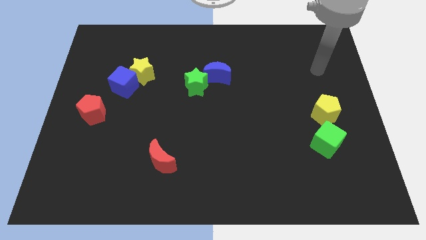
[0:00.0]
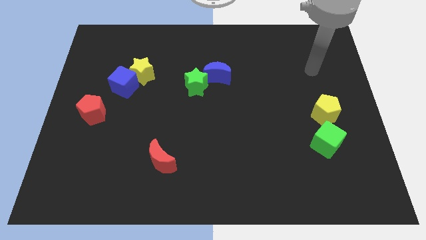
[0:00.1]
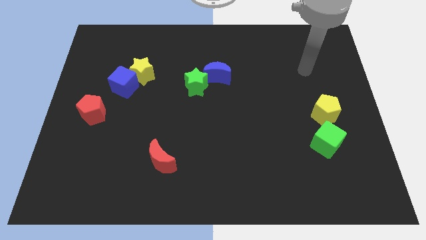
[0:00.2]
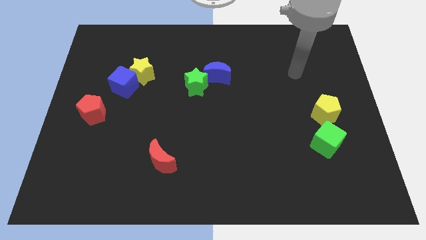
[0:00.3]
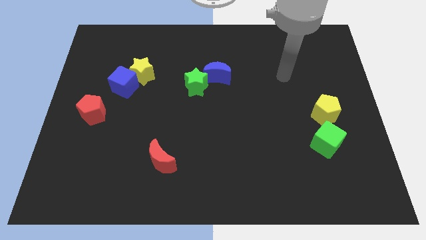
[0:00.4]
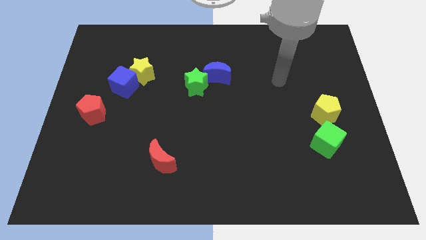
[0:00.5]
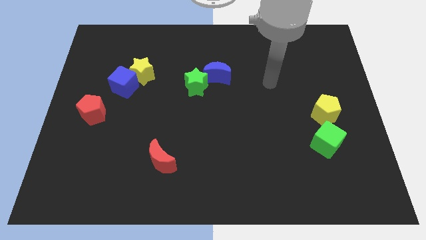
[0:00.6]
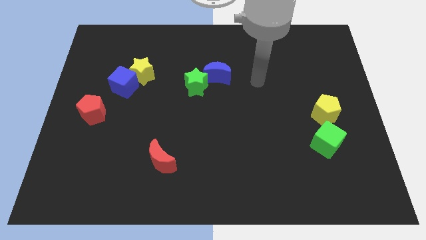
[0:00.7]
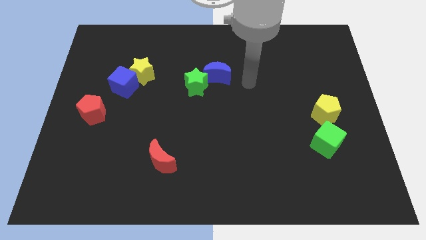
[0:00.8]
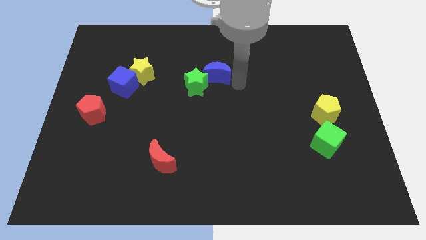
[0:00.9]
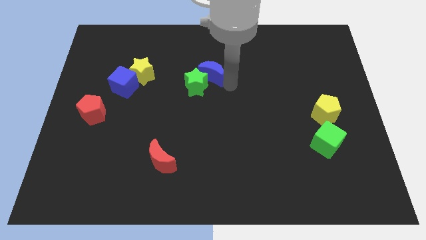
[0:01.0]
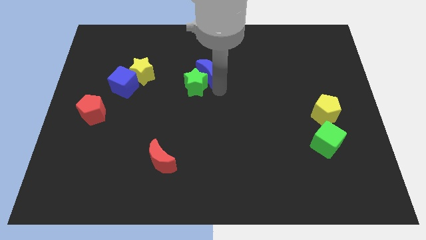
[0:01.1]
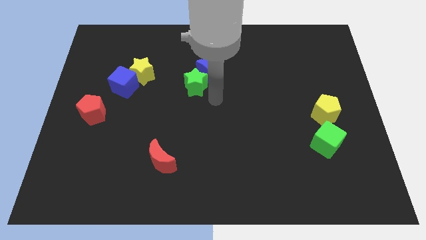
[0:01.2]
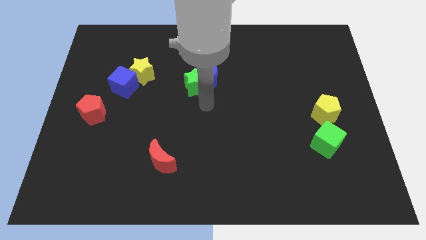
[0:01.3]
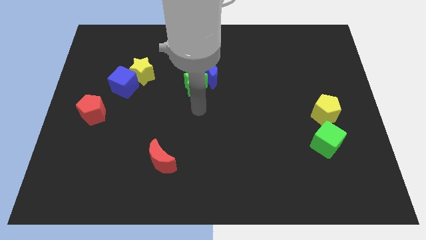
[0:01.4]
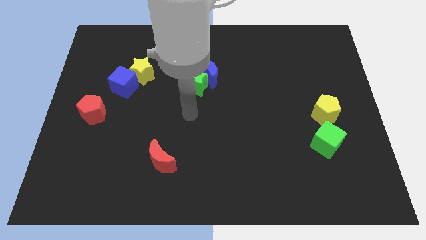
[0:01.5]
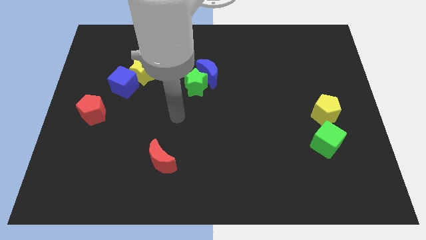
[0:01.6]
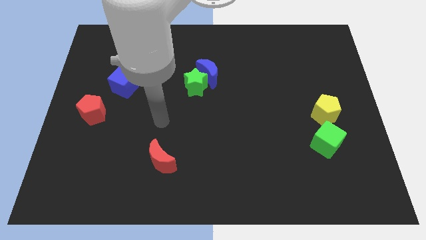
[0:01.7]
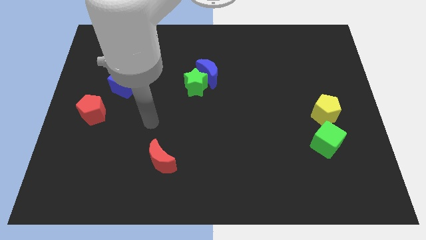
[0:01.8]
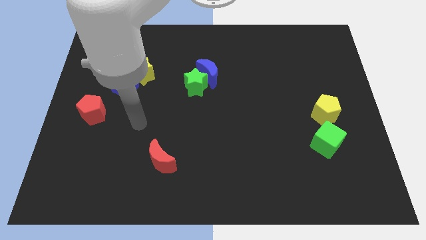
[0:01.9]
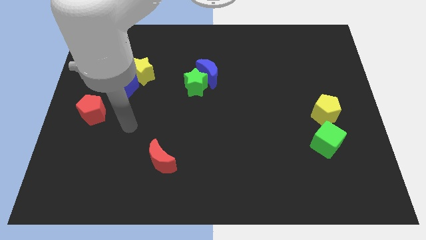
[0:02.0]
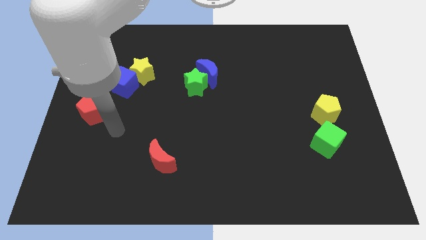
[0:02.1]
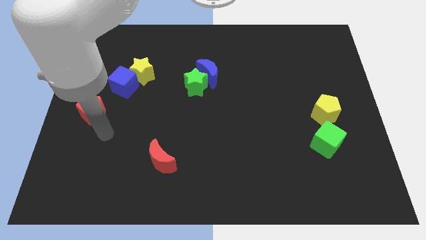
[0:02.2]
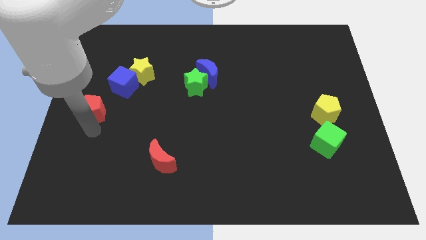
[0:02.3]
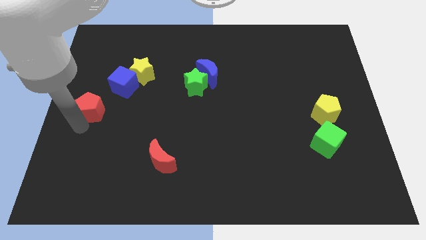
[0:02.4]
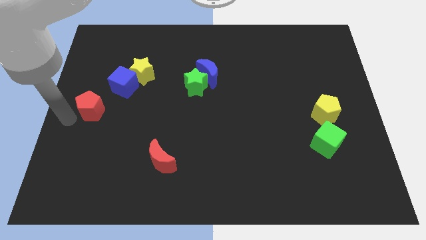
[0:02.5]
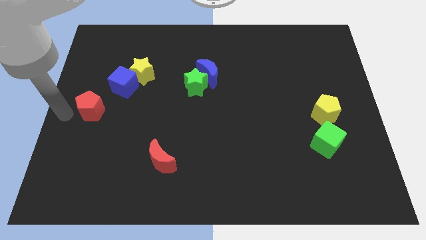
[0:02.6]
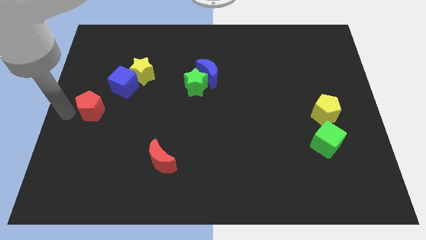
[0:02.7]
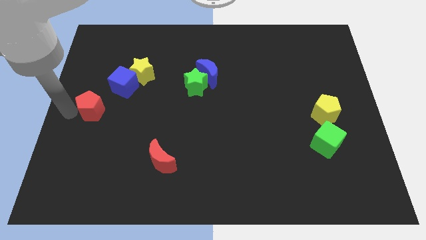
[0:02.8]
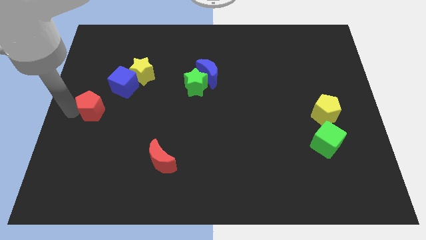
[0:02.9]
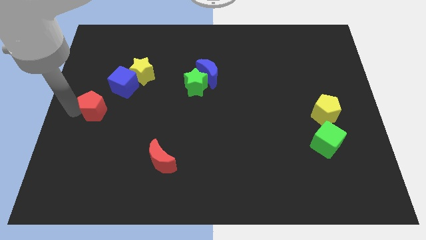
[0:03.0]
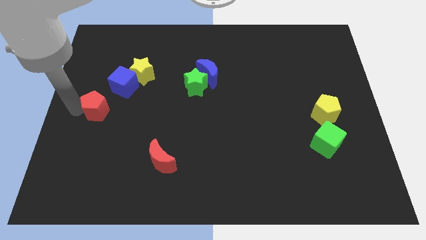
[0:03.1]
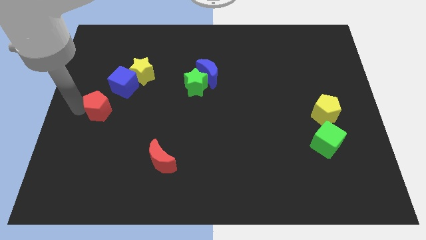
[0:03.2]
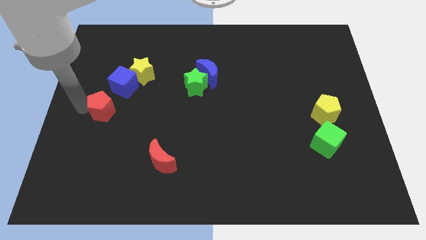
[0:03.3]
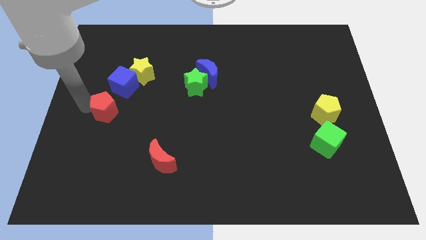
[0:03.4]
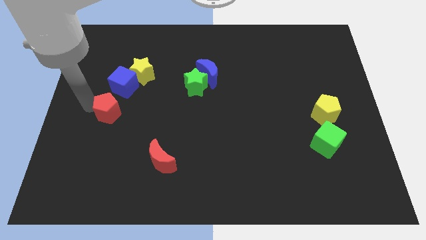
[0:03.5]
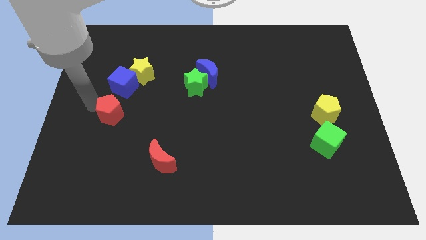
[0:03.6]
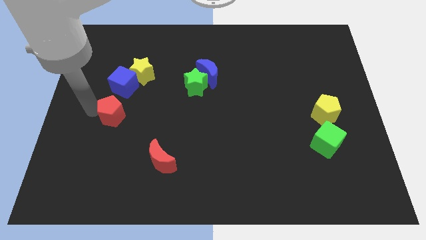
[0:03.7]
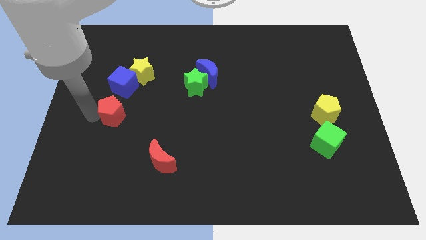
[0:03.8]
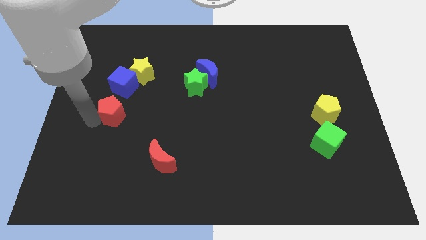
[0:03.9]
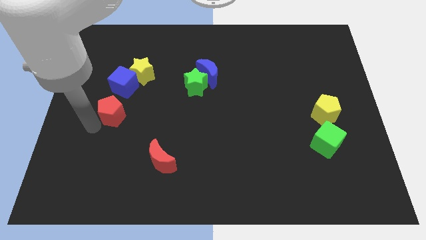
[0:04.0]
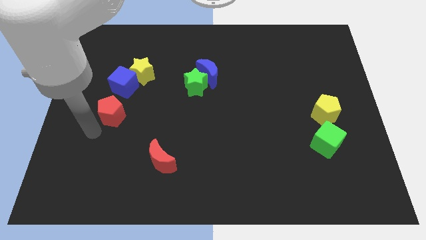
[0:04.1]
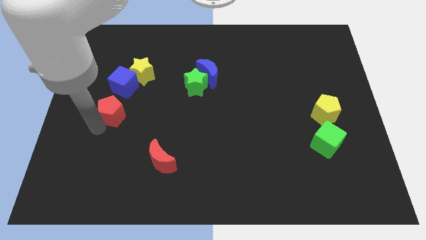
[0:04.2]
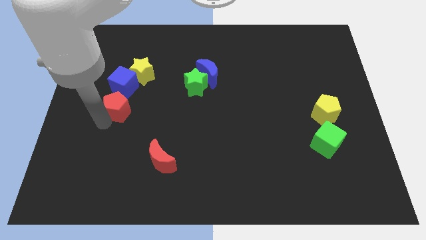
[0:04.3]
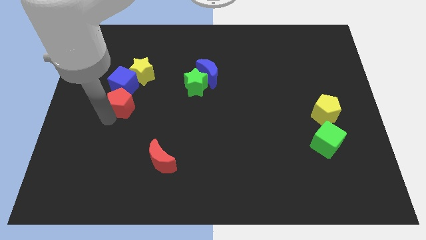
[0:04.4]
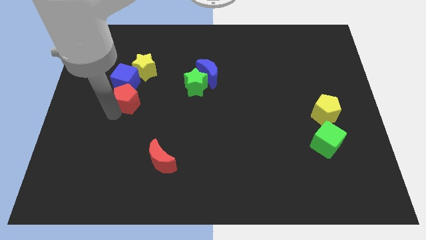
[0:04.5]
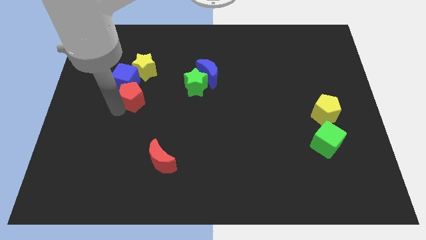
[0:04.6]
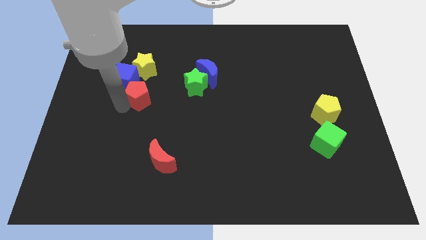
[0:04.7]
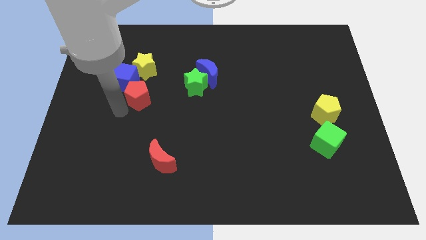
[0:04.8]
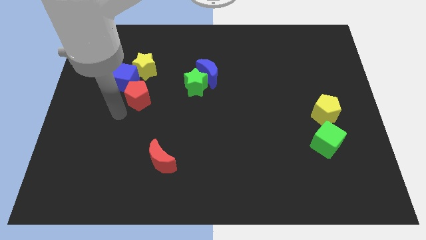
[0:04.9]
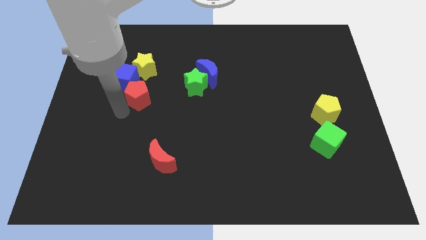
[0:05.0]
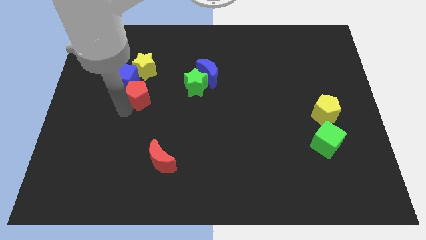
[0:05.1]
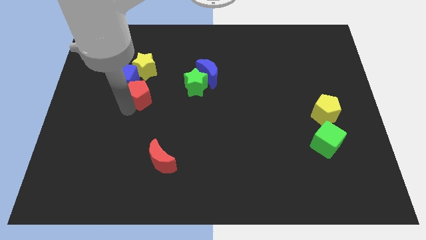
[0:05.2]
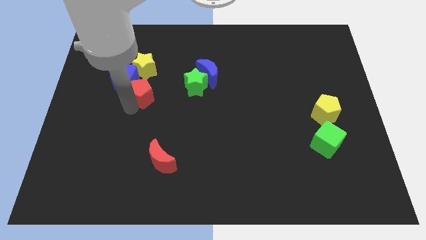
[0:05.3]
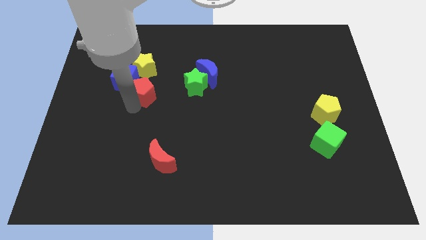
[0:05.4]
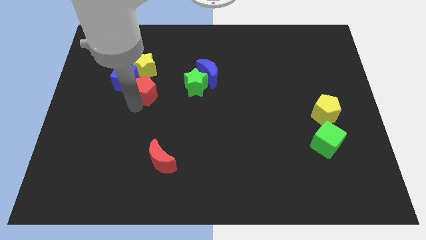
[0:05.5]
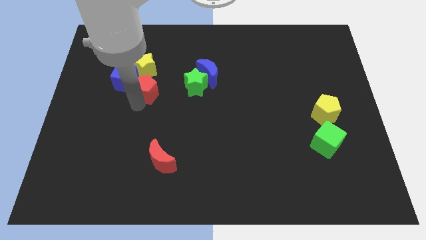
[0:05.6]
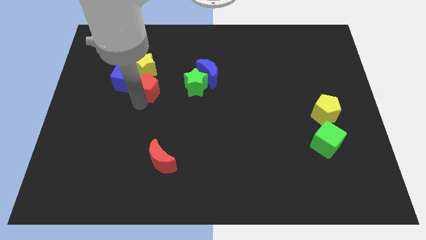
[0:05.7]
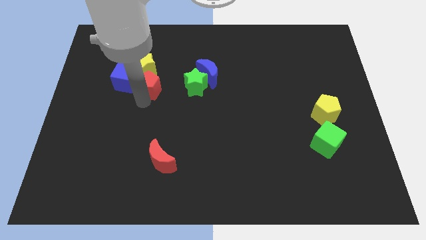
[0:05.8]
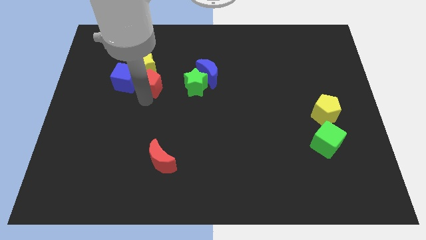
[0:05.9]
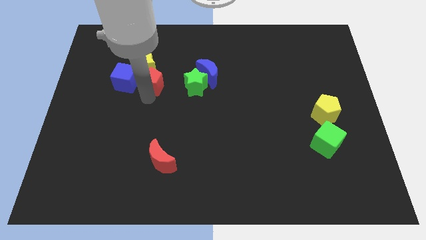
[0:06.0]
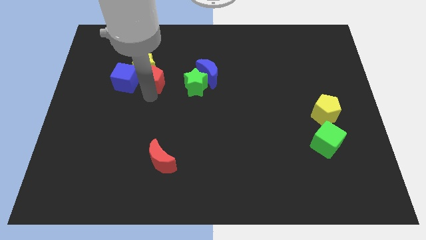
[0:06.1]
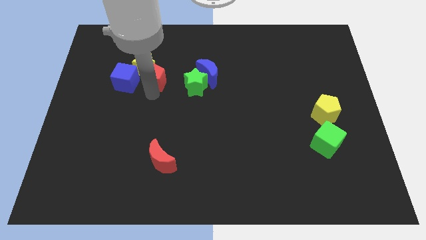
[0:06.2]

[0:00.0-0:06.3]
put the red pentagon to the top right side of the blue cube

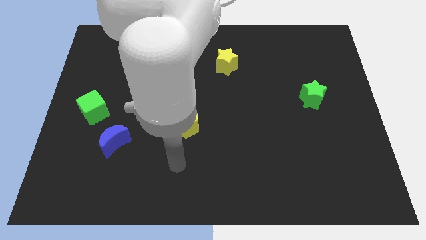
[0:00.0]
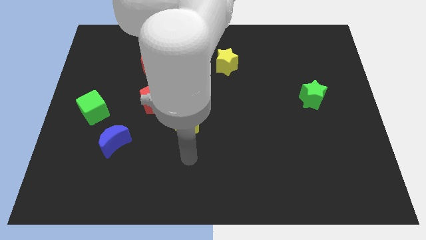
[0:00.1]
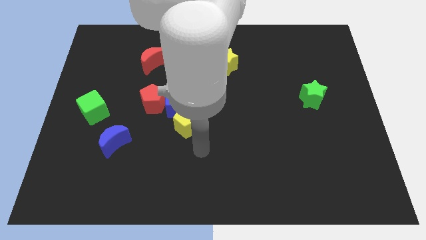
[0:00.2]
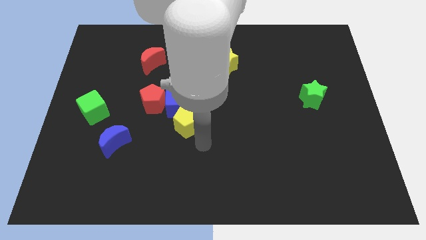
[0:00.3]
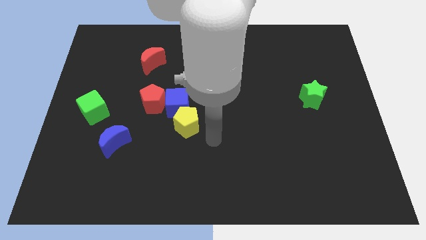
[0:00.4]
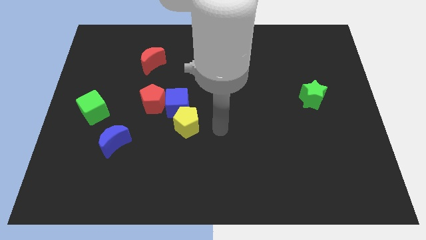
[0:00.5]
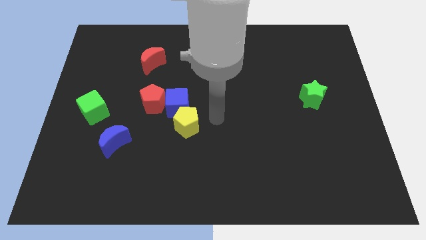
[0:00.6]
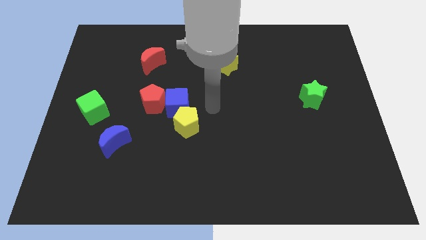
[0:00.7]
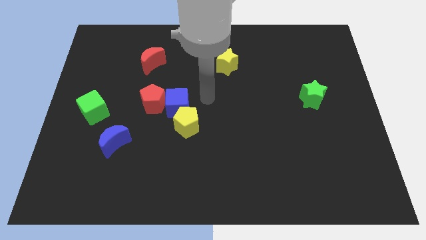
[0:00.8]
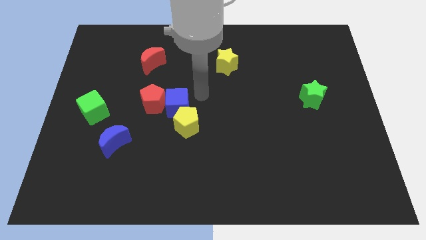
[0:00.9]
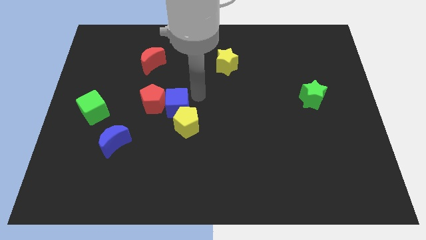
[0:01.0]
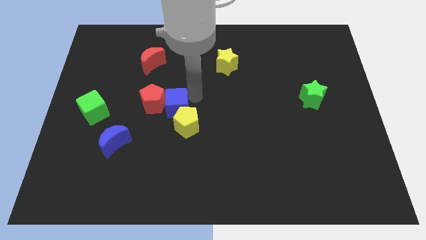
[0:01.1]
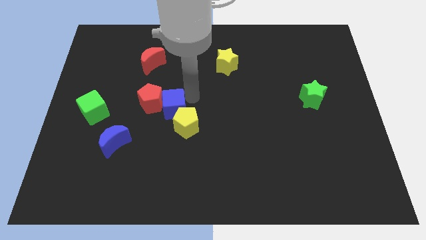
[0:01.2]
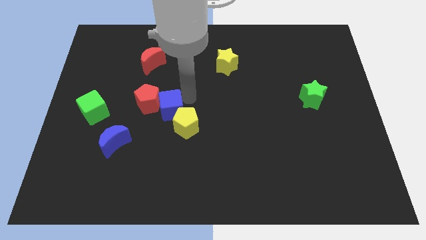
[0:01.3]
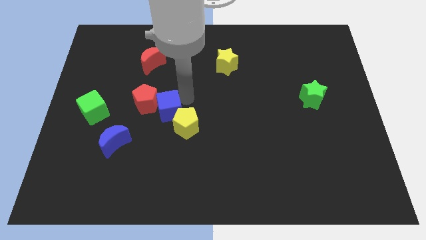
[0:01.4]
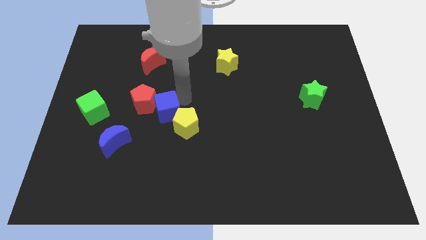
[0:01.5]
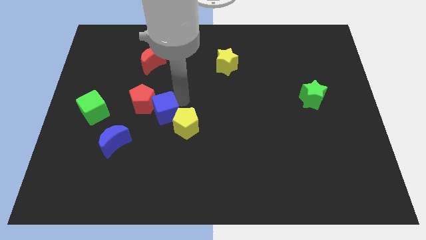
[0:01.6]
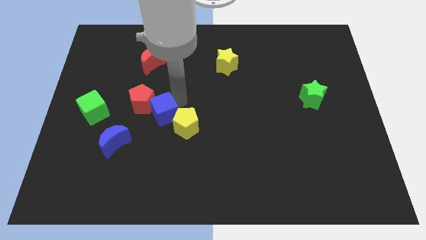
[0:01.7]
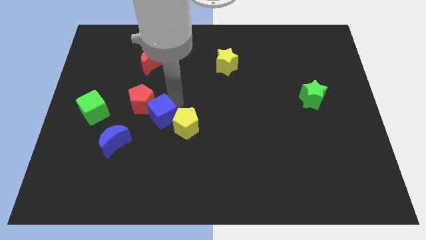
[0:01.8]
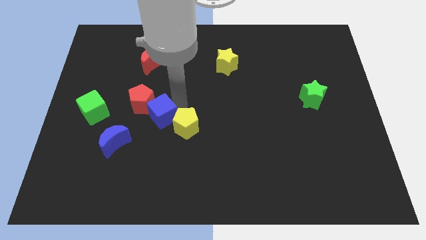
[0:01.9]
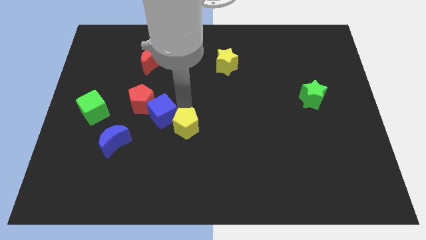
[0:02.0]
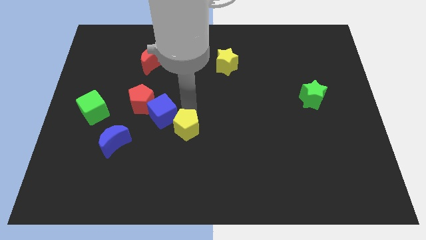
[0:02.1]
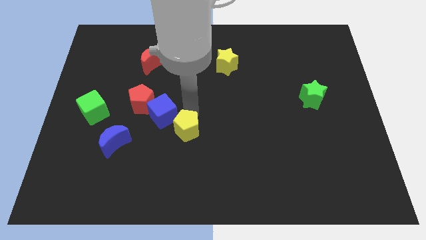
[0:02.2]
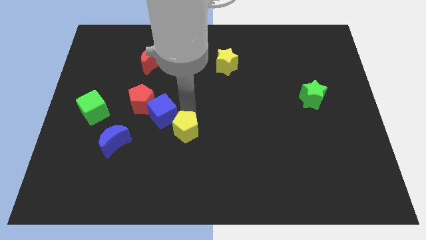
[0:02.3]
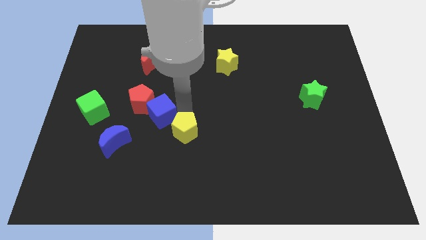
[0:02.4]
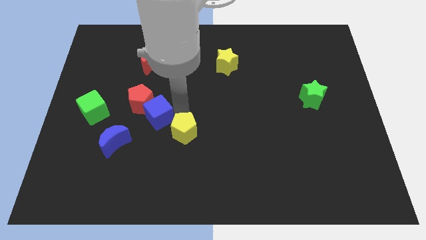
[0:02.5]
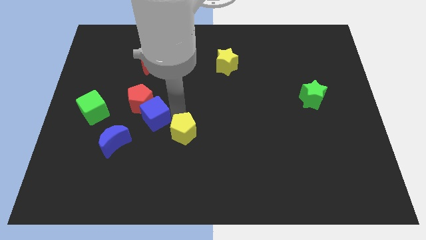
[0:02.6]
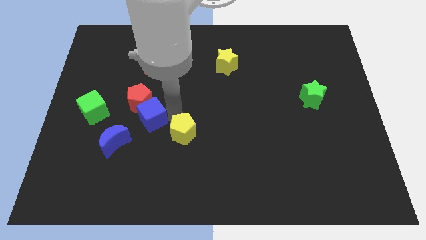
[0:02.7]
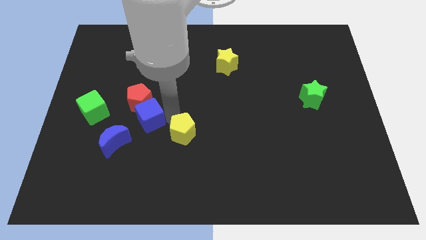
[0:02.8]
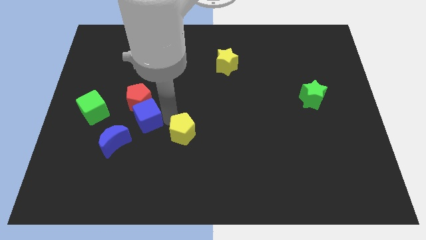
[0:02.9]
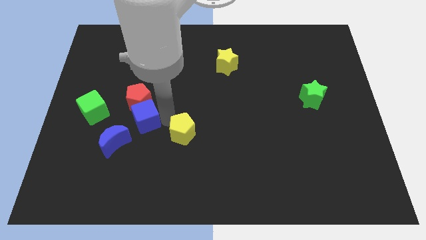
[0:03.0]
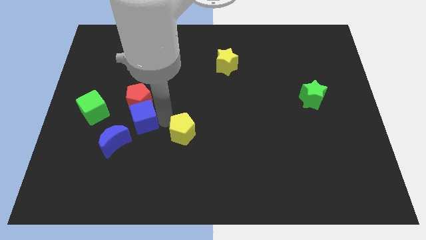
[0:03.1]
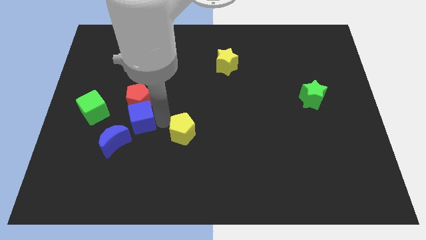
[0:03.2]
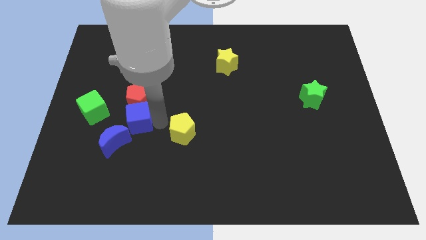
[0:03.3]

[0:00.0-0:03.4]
push the blue cube to the top side of the blue moon
